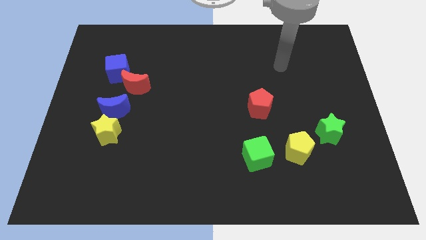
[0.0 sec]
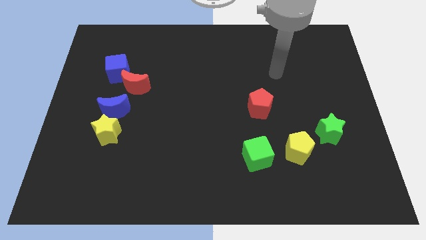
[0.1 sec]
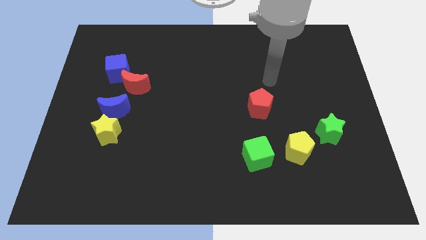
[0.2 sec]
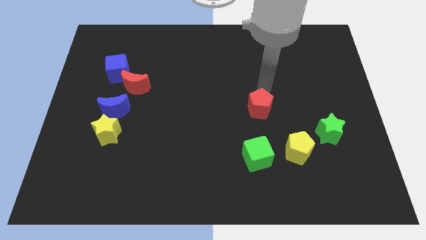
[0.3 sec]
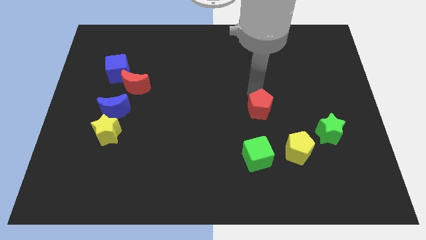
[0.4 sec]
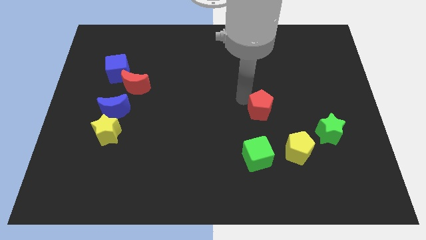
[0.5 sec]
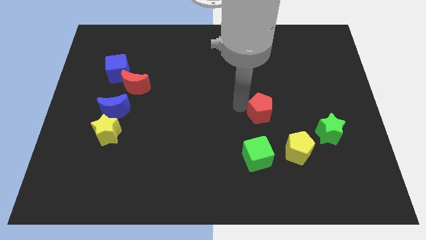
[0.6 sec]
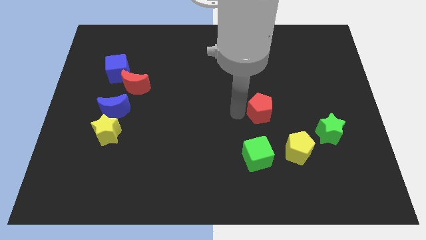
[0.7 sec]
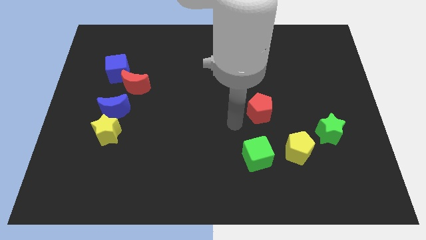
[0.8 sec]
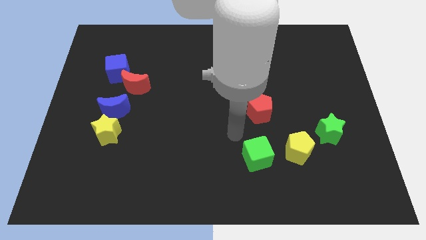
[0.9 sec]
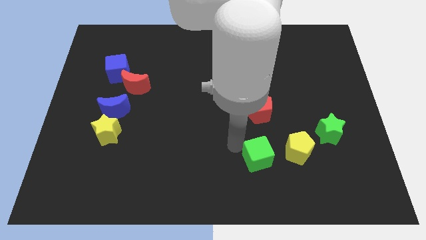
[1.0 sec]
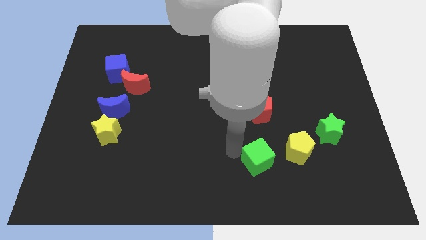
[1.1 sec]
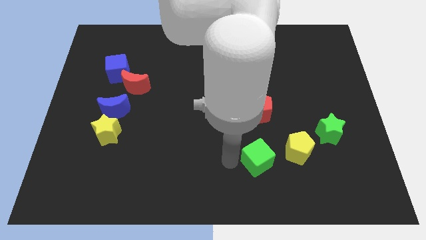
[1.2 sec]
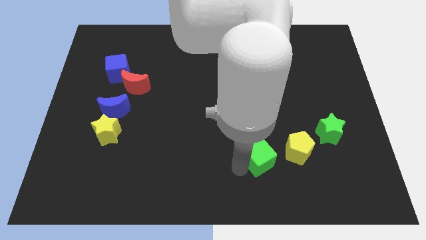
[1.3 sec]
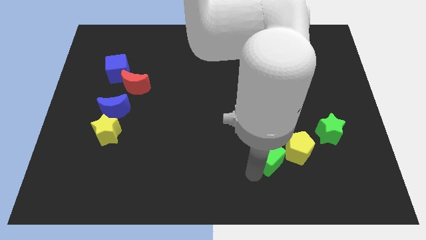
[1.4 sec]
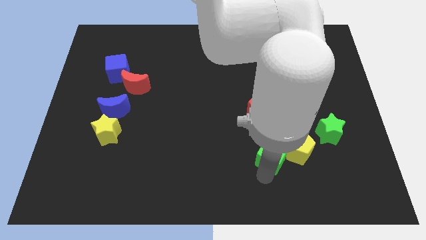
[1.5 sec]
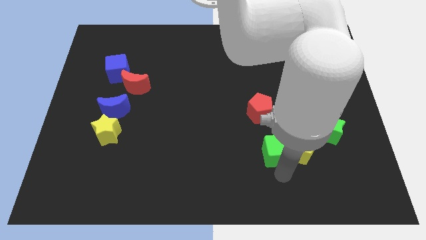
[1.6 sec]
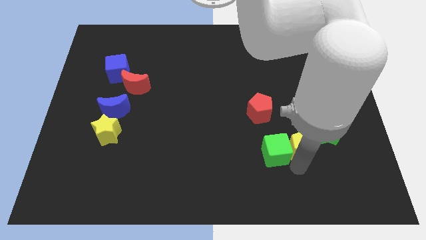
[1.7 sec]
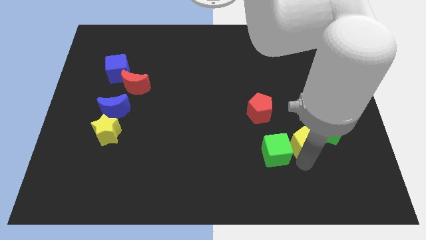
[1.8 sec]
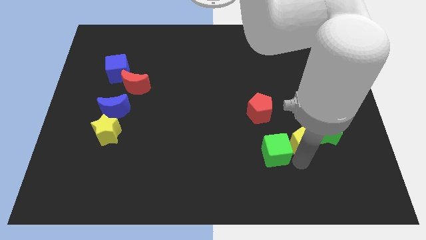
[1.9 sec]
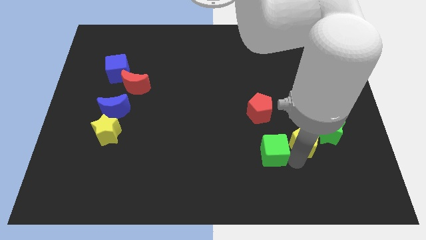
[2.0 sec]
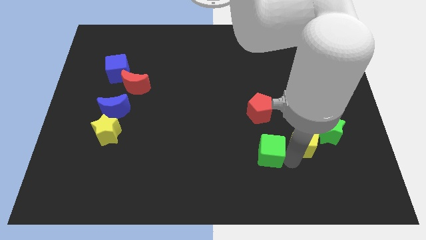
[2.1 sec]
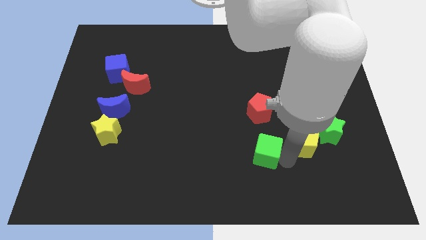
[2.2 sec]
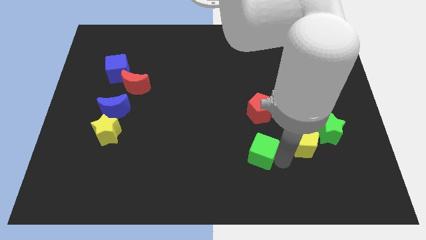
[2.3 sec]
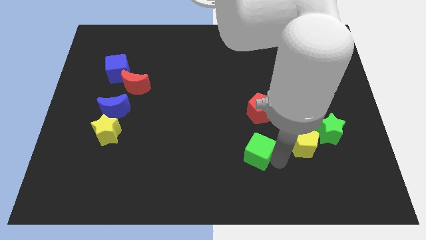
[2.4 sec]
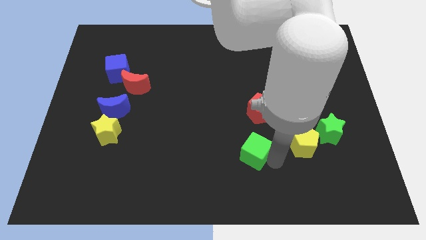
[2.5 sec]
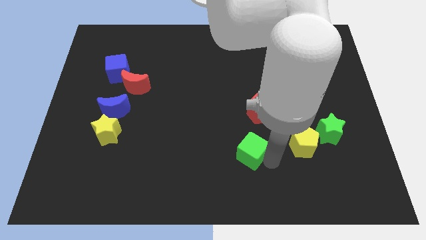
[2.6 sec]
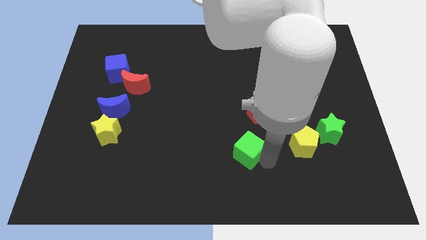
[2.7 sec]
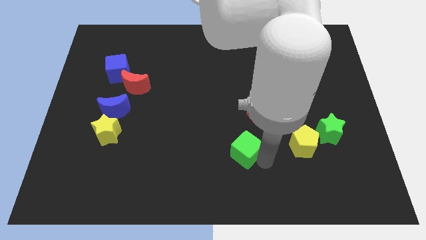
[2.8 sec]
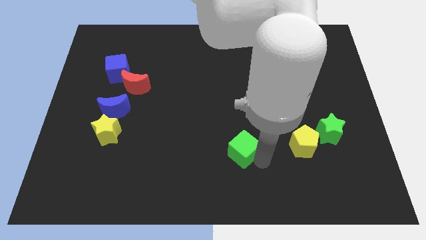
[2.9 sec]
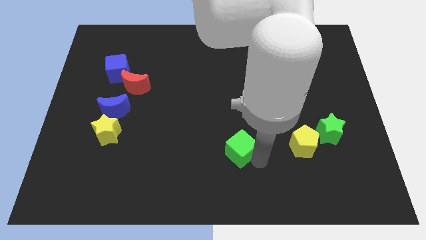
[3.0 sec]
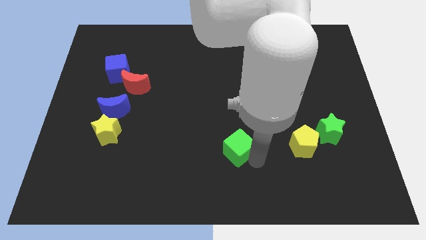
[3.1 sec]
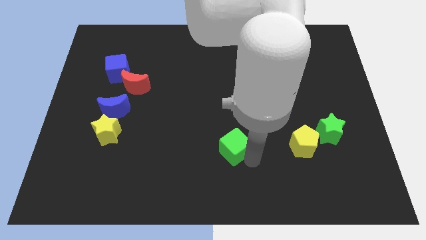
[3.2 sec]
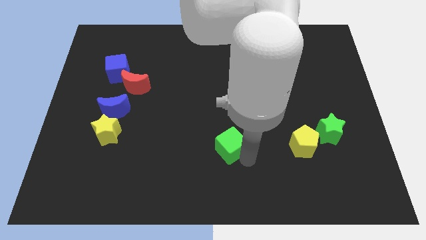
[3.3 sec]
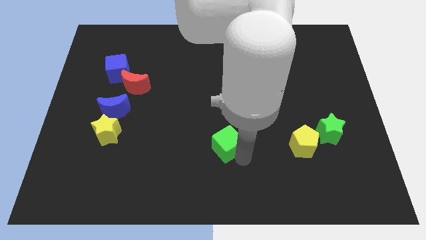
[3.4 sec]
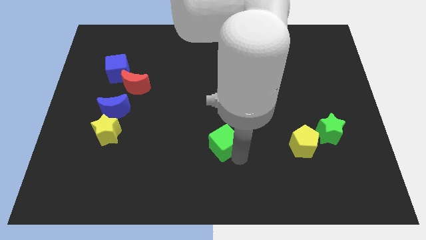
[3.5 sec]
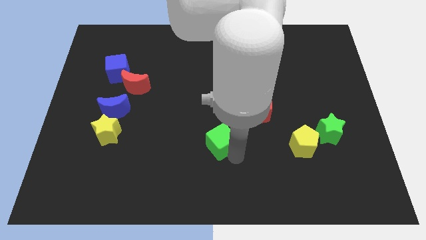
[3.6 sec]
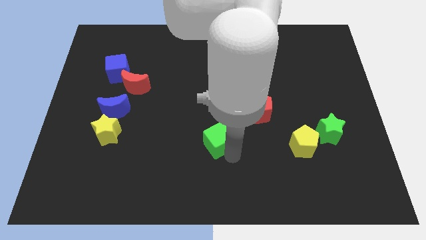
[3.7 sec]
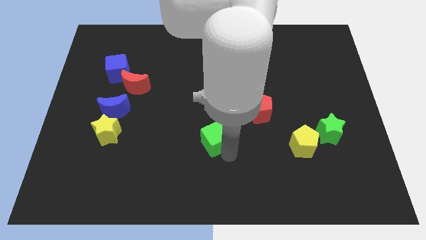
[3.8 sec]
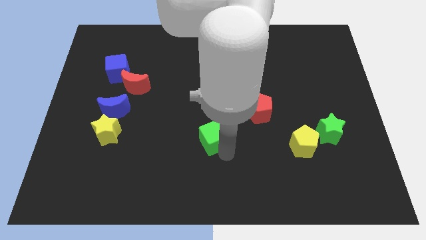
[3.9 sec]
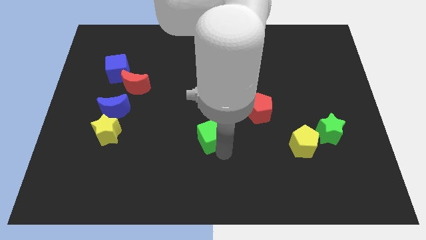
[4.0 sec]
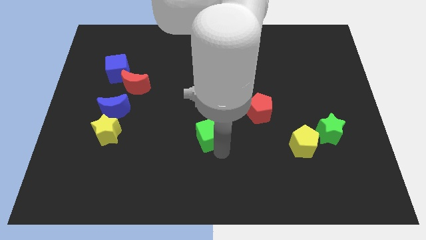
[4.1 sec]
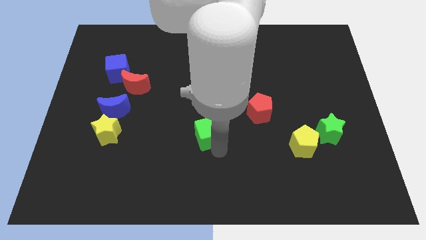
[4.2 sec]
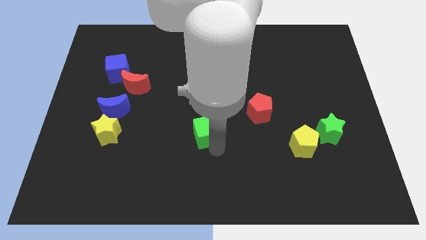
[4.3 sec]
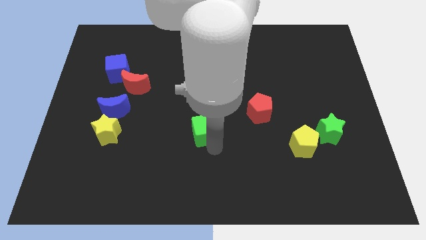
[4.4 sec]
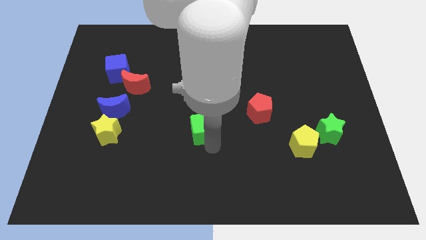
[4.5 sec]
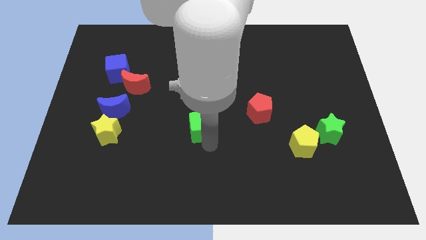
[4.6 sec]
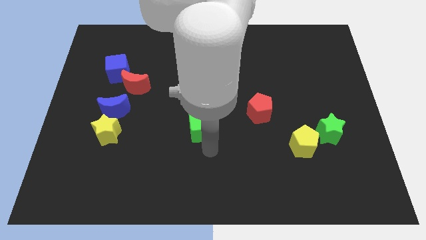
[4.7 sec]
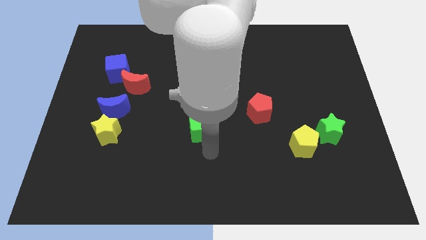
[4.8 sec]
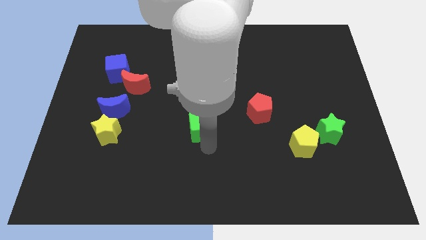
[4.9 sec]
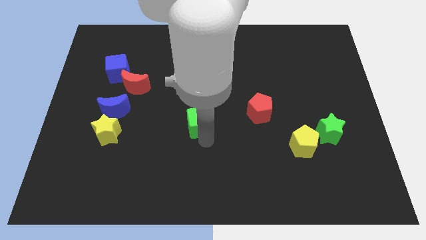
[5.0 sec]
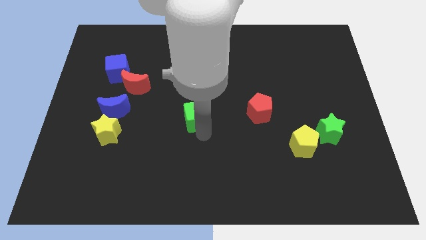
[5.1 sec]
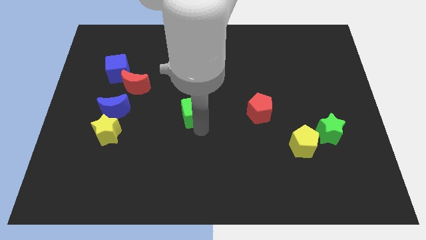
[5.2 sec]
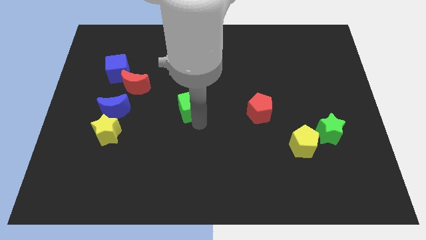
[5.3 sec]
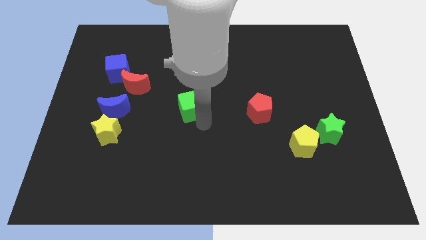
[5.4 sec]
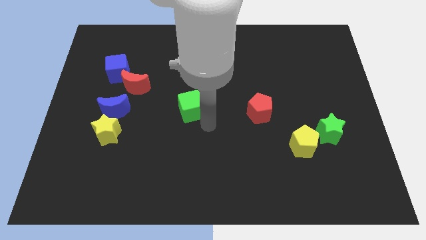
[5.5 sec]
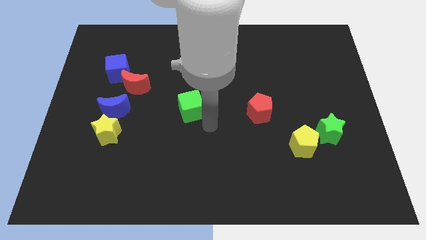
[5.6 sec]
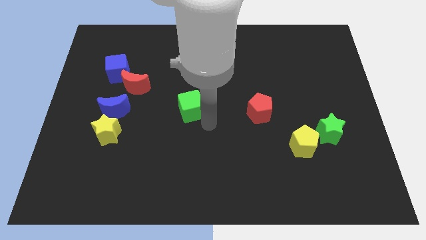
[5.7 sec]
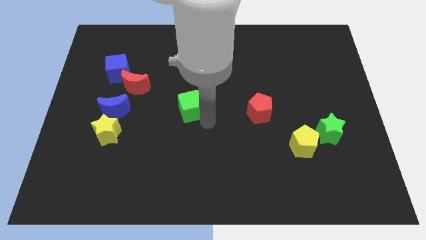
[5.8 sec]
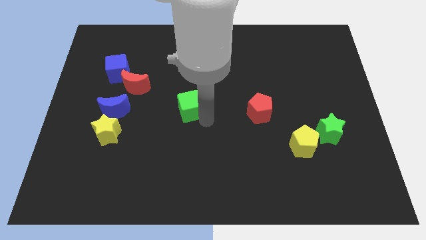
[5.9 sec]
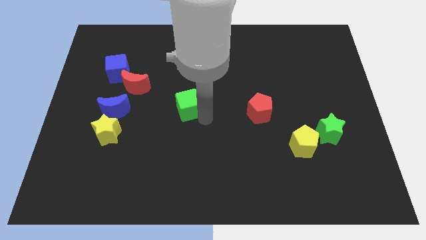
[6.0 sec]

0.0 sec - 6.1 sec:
slide the green cube diagonally up and left

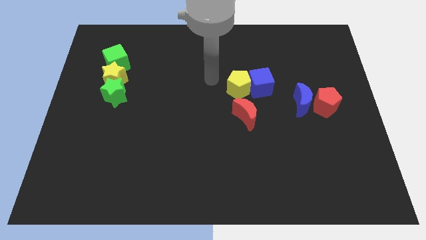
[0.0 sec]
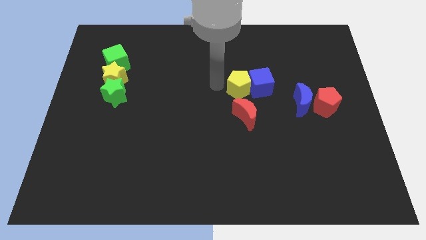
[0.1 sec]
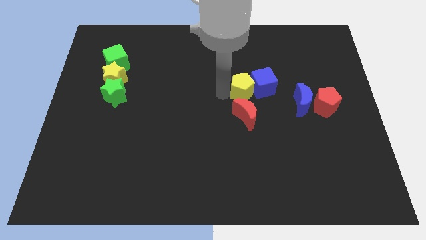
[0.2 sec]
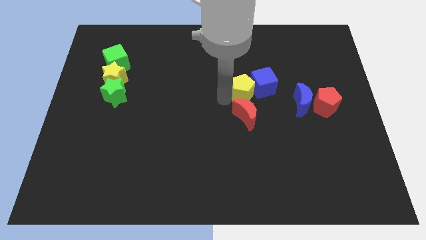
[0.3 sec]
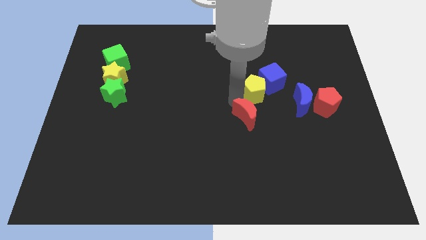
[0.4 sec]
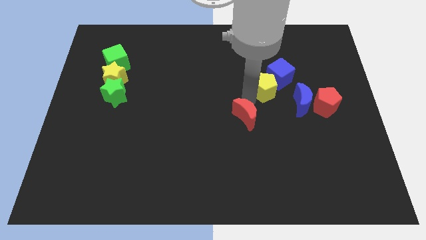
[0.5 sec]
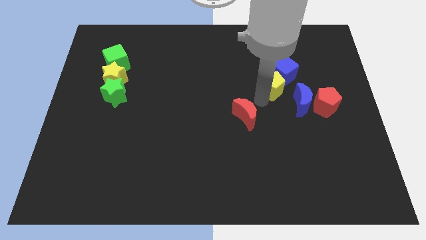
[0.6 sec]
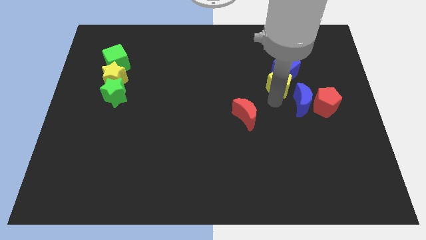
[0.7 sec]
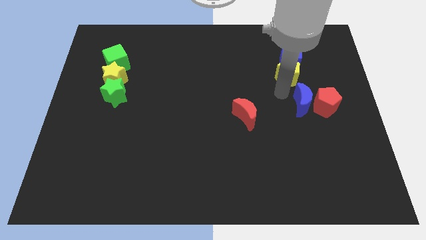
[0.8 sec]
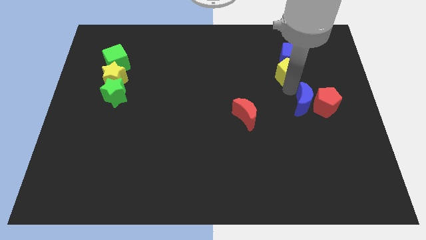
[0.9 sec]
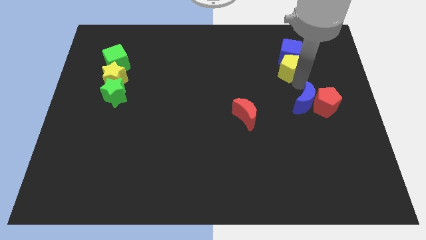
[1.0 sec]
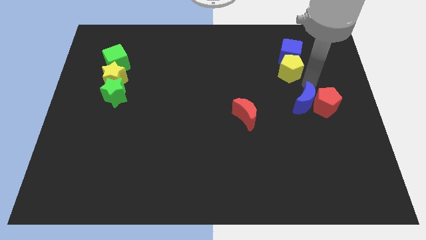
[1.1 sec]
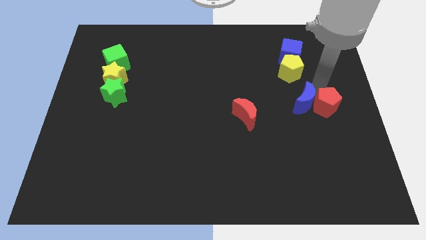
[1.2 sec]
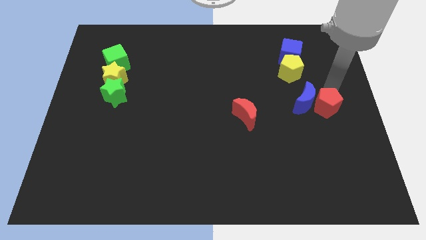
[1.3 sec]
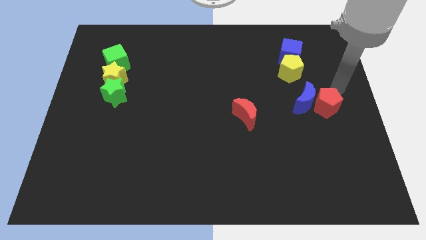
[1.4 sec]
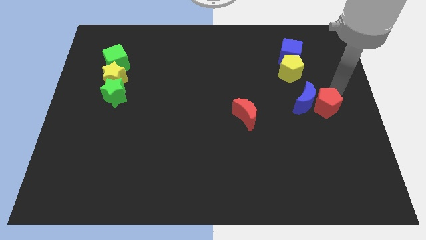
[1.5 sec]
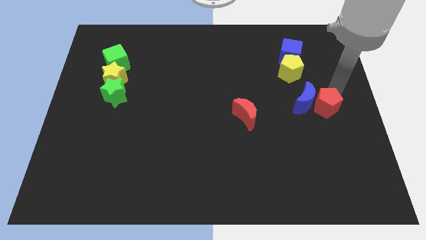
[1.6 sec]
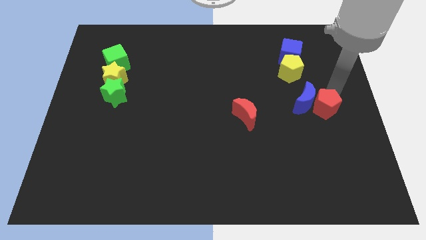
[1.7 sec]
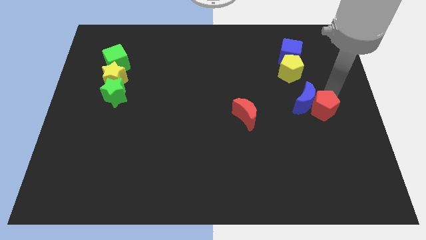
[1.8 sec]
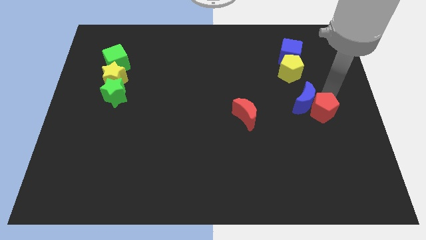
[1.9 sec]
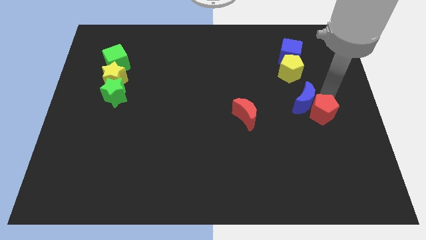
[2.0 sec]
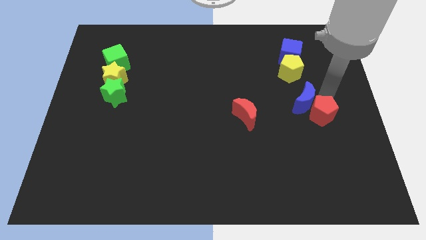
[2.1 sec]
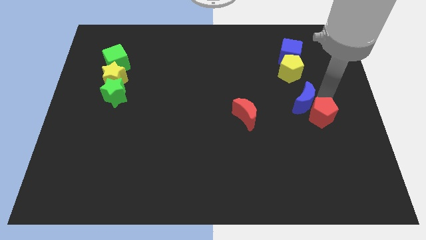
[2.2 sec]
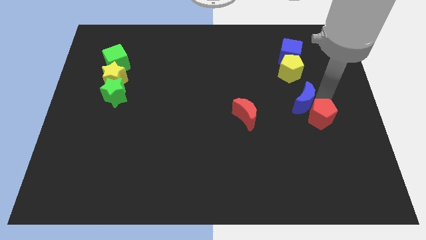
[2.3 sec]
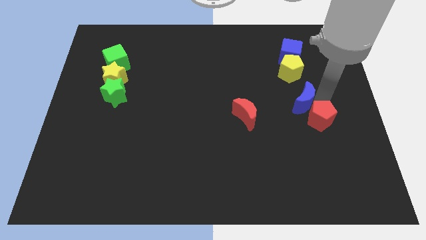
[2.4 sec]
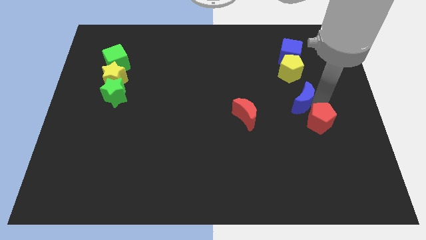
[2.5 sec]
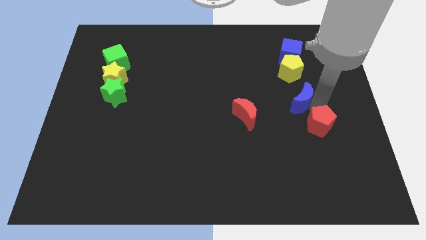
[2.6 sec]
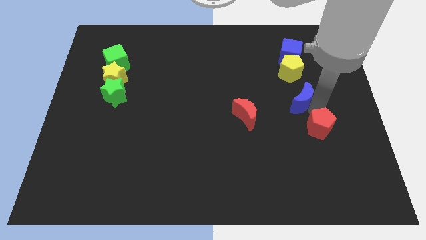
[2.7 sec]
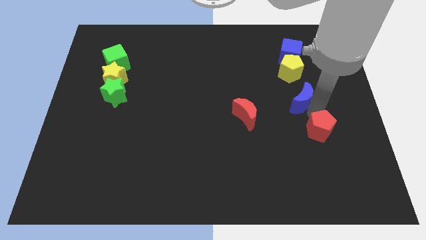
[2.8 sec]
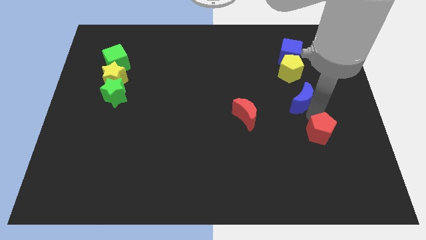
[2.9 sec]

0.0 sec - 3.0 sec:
move the red pentagon somewhat downwards and then to the left
